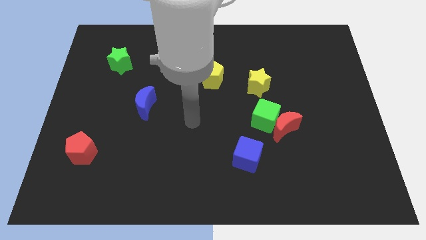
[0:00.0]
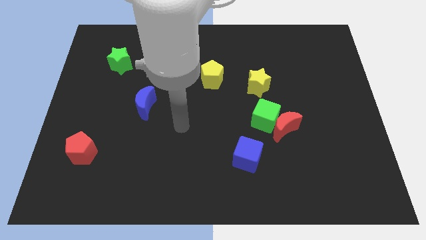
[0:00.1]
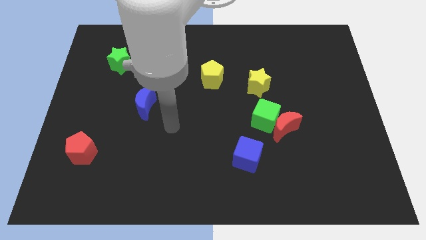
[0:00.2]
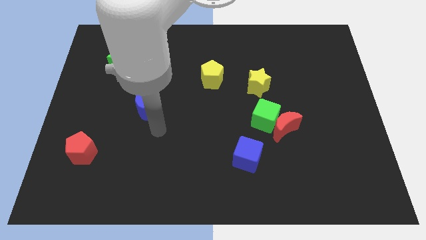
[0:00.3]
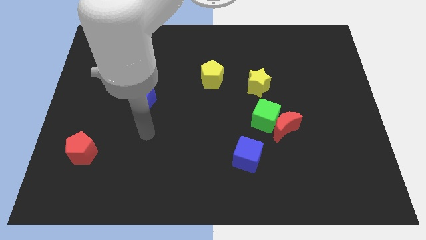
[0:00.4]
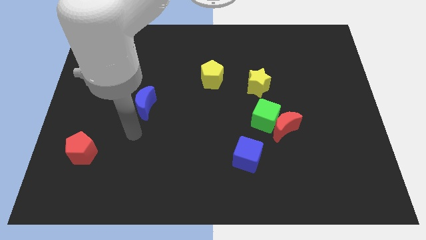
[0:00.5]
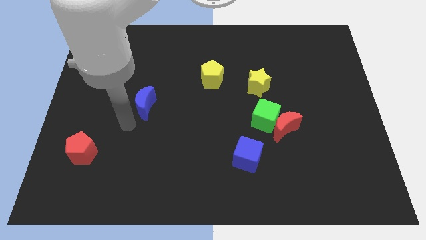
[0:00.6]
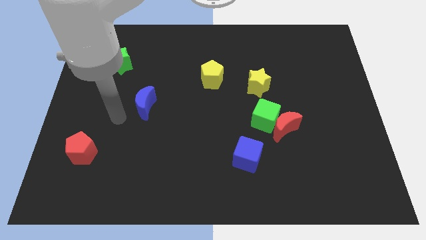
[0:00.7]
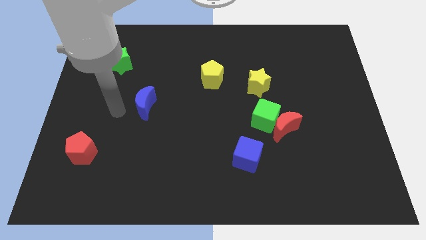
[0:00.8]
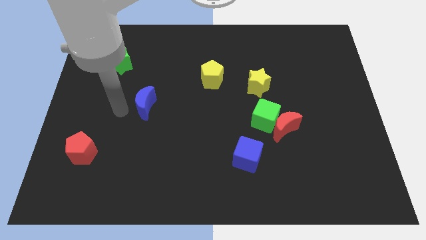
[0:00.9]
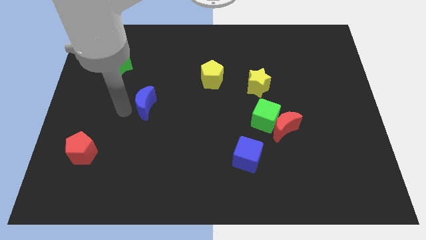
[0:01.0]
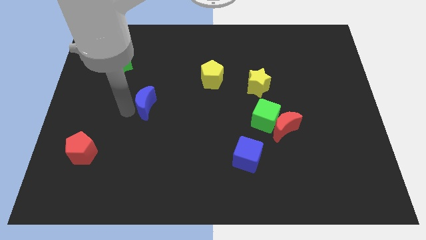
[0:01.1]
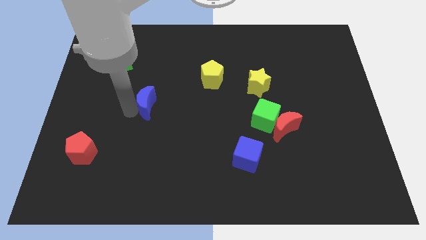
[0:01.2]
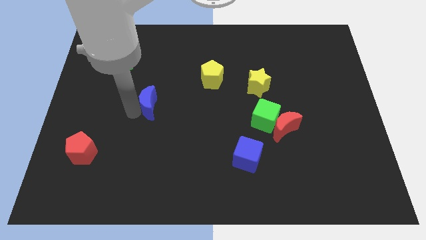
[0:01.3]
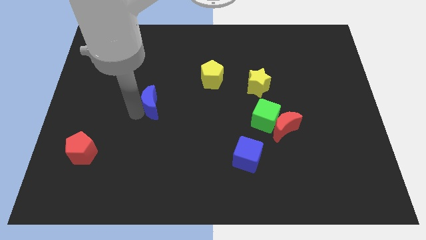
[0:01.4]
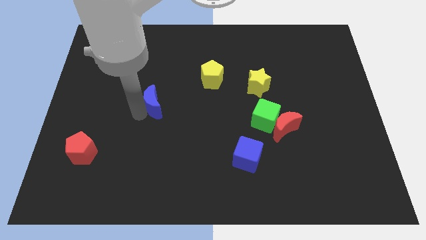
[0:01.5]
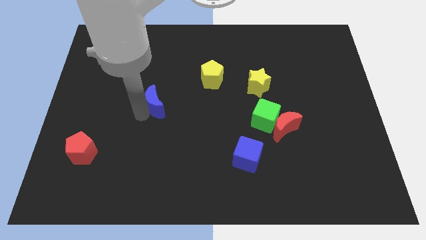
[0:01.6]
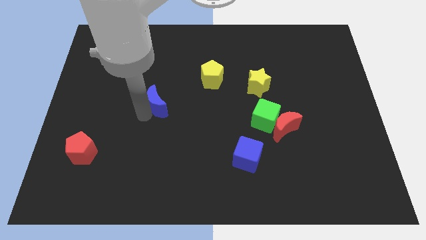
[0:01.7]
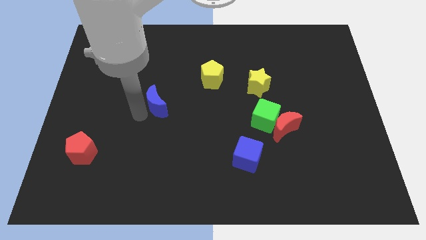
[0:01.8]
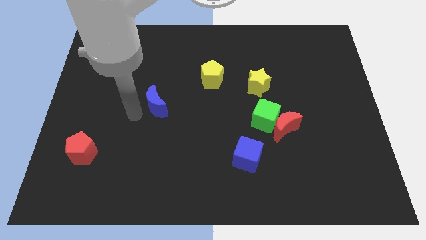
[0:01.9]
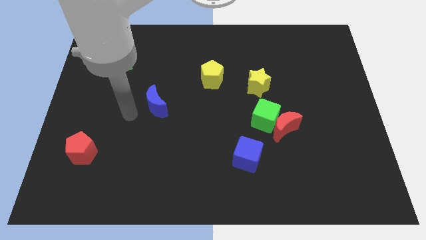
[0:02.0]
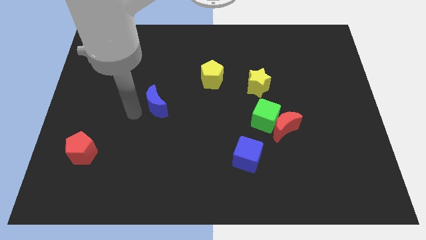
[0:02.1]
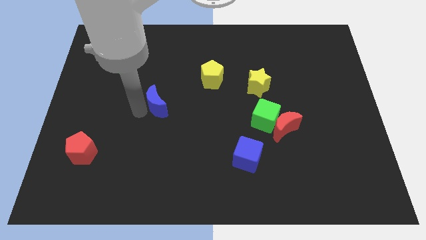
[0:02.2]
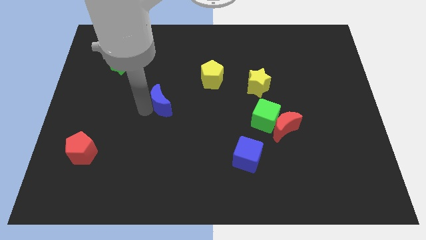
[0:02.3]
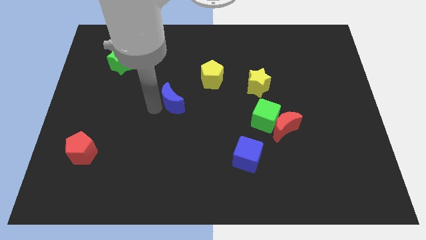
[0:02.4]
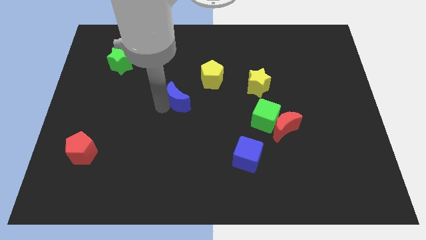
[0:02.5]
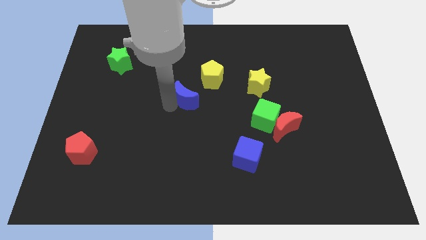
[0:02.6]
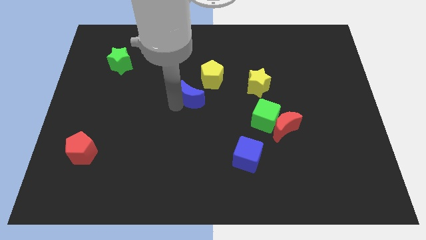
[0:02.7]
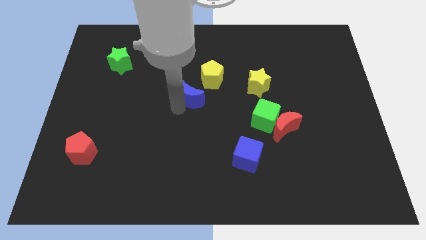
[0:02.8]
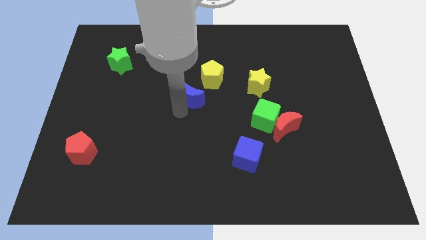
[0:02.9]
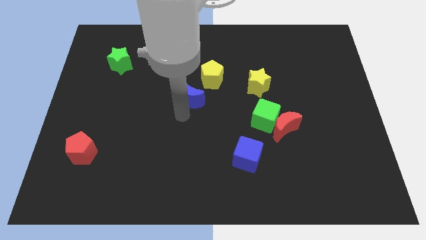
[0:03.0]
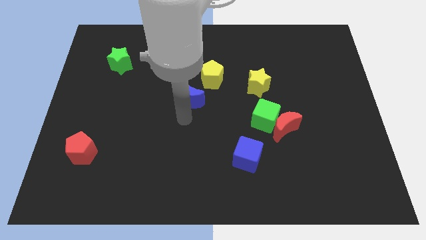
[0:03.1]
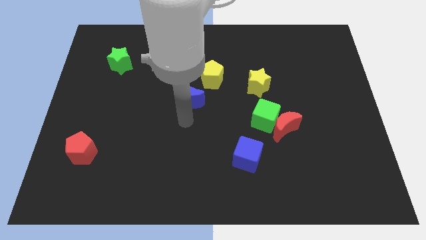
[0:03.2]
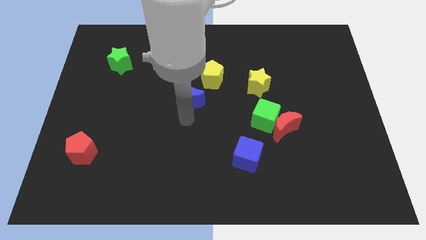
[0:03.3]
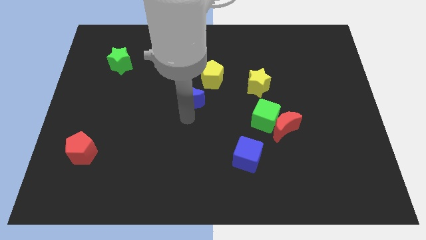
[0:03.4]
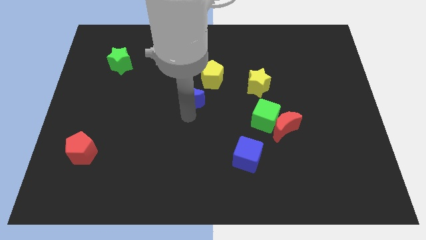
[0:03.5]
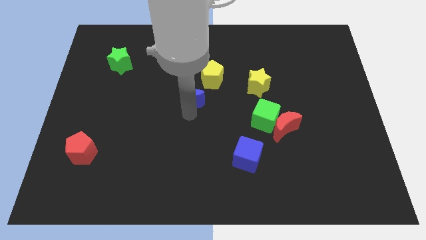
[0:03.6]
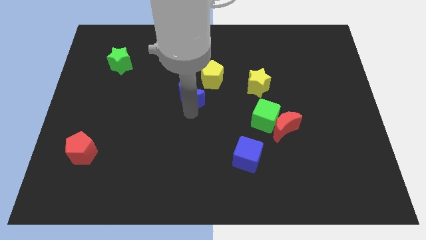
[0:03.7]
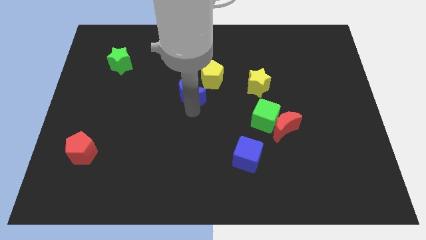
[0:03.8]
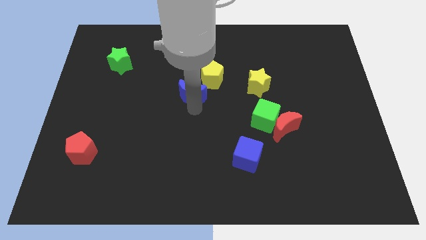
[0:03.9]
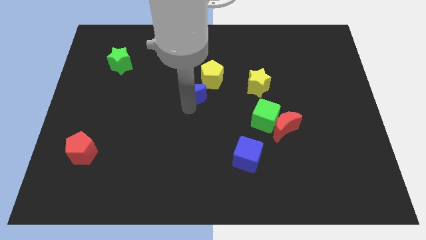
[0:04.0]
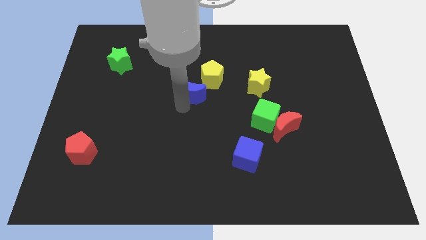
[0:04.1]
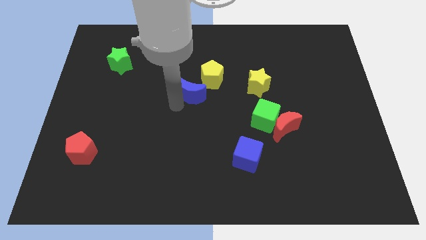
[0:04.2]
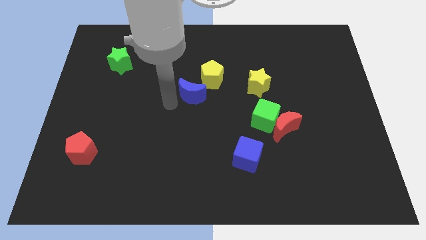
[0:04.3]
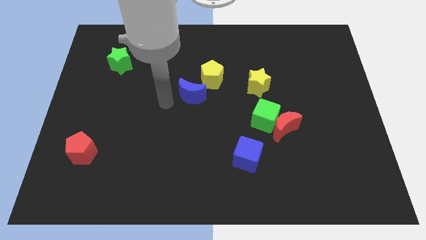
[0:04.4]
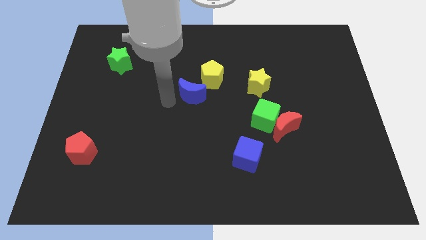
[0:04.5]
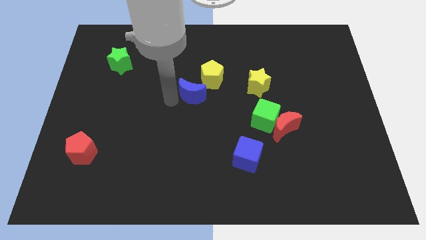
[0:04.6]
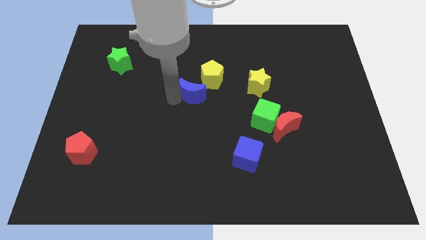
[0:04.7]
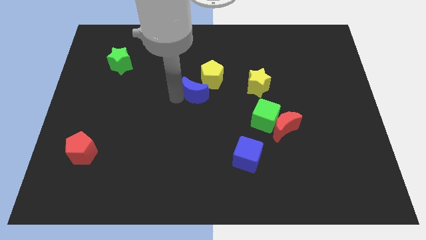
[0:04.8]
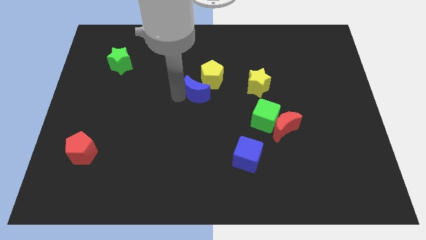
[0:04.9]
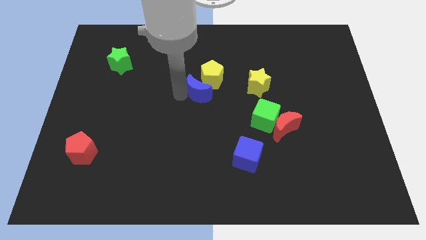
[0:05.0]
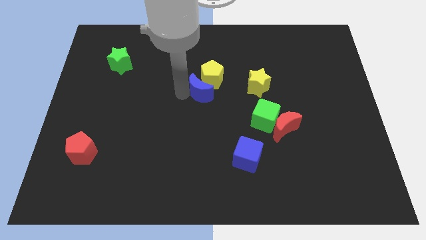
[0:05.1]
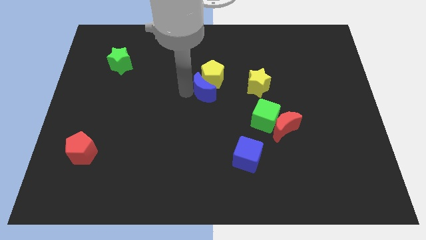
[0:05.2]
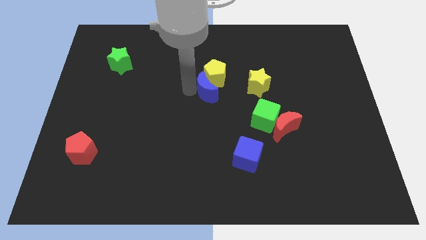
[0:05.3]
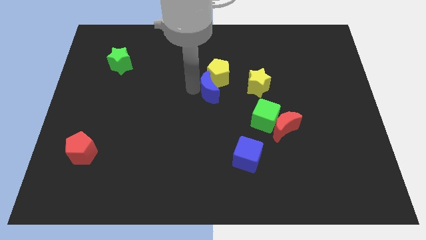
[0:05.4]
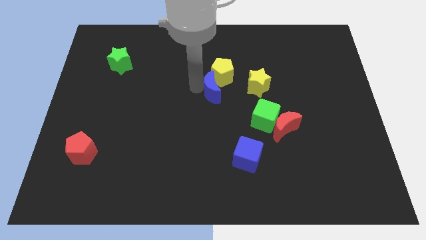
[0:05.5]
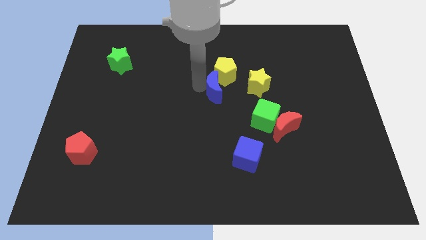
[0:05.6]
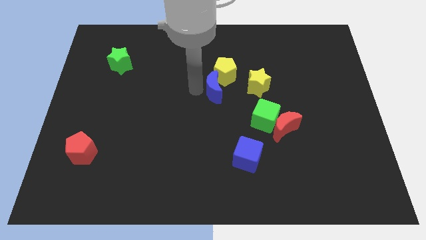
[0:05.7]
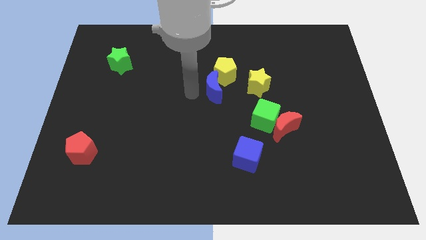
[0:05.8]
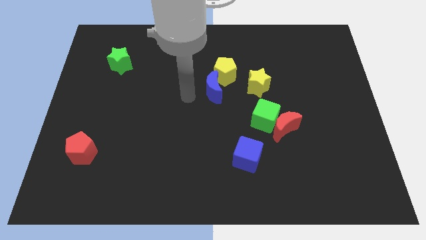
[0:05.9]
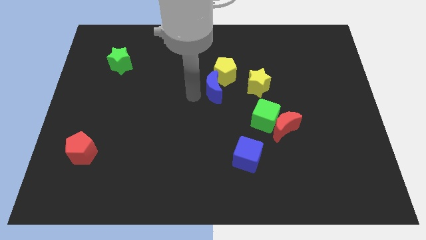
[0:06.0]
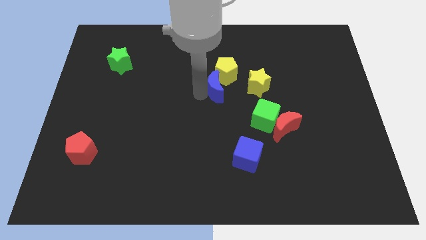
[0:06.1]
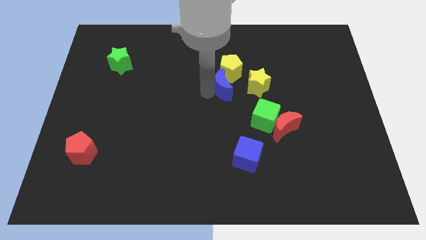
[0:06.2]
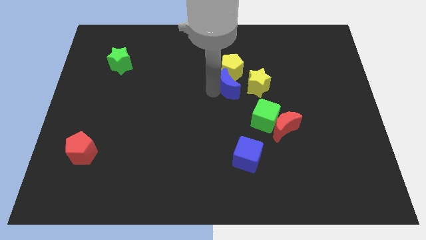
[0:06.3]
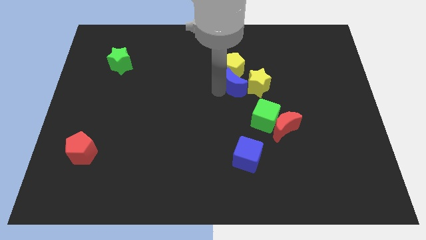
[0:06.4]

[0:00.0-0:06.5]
move the blue moon next to the yellow star

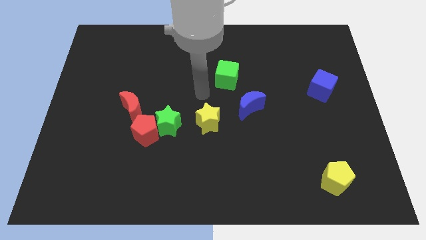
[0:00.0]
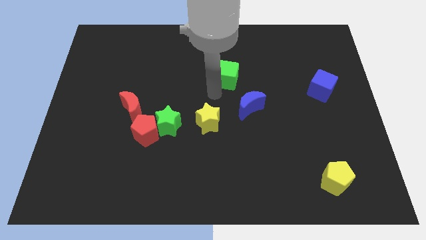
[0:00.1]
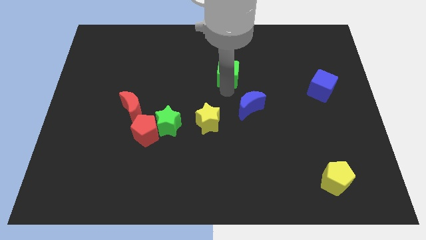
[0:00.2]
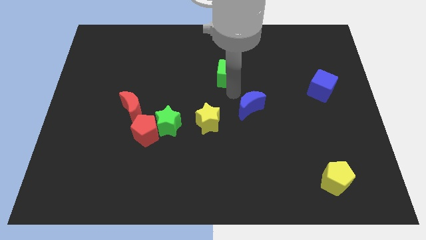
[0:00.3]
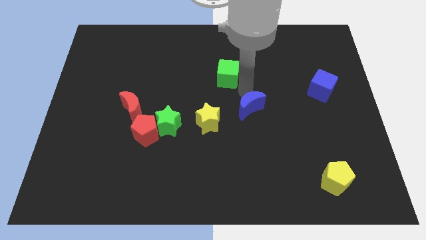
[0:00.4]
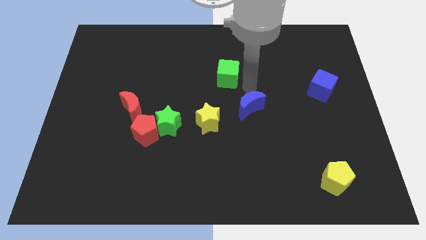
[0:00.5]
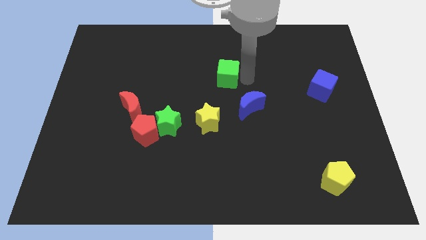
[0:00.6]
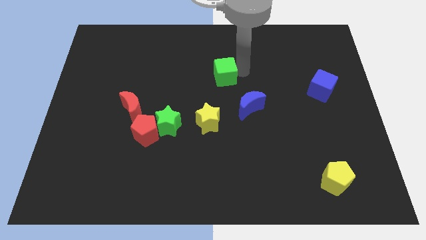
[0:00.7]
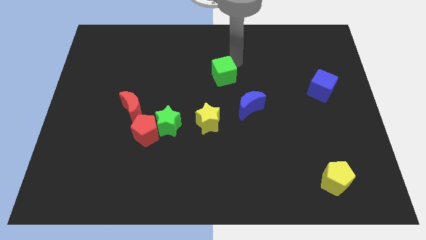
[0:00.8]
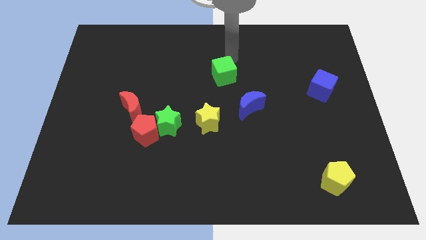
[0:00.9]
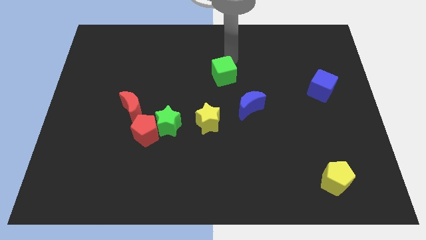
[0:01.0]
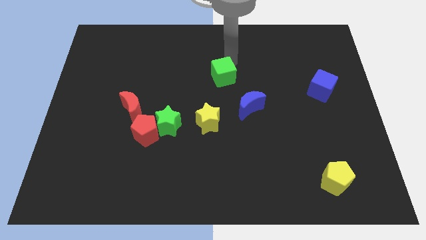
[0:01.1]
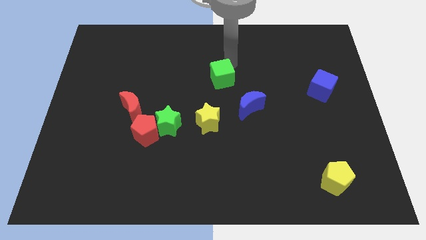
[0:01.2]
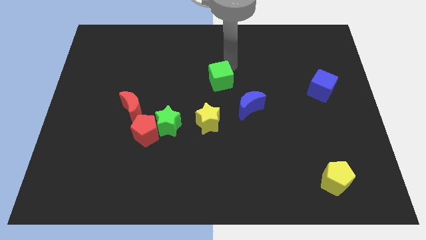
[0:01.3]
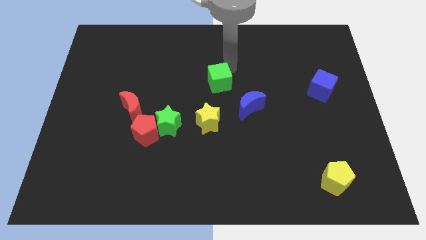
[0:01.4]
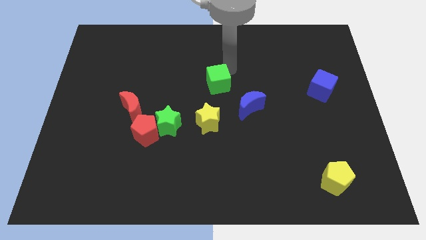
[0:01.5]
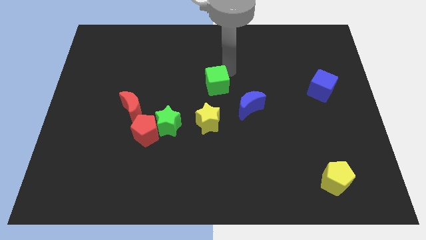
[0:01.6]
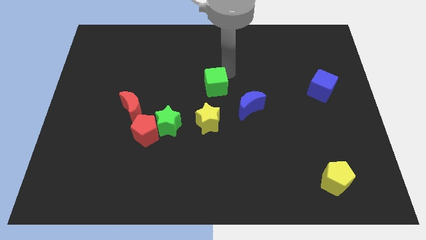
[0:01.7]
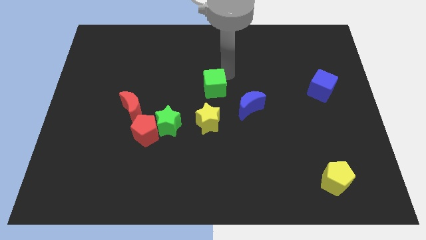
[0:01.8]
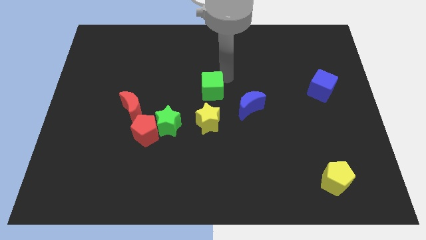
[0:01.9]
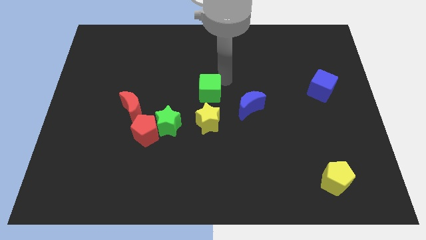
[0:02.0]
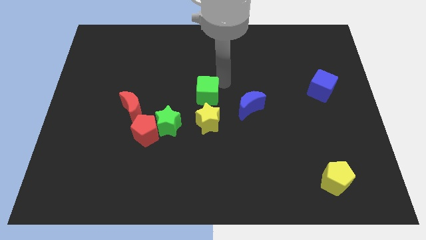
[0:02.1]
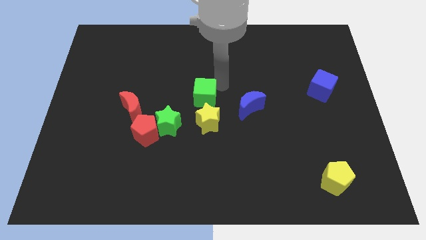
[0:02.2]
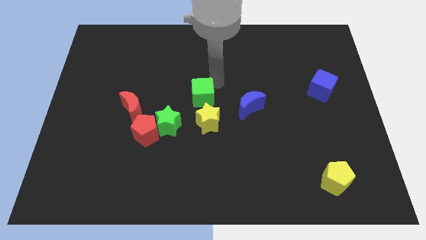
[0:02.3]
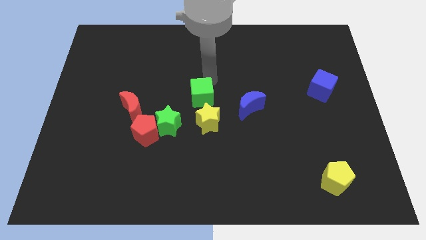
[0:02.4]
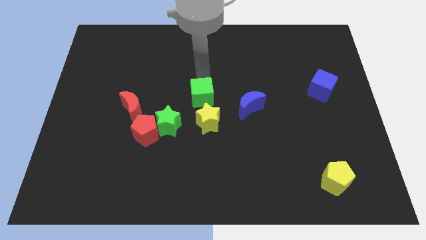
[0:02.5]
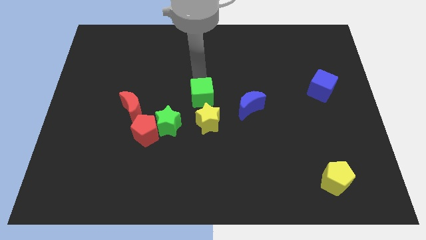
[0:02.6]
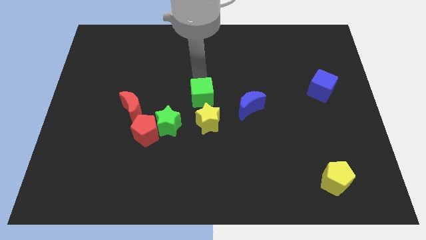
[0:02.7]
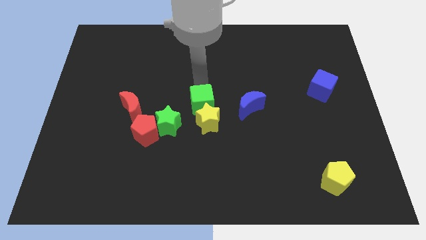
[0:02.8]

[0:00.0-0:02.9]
put the green cube next to the yellow star
